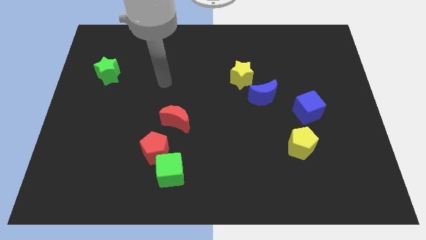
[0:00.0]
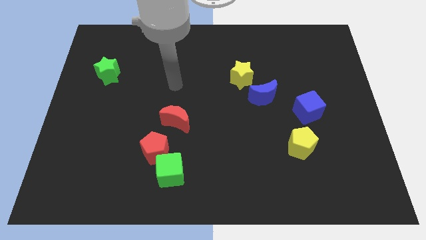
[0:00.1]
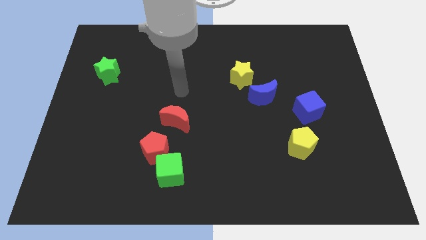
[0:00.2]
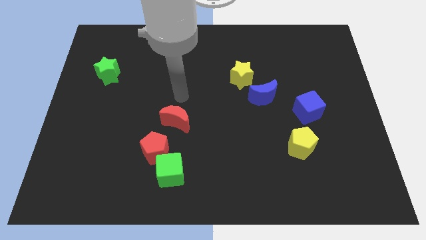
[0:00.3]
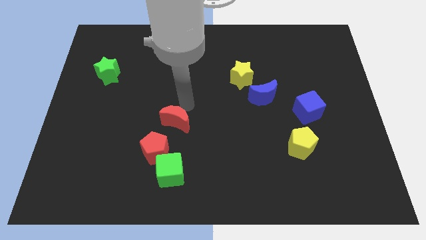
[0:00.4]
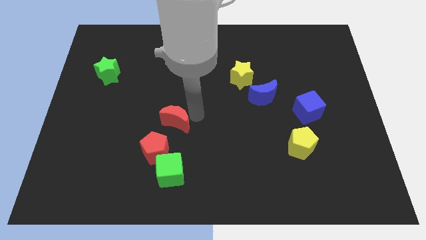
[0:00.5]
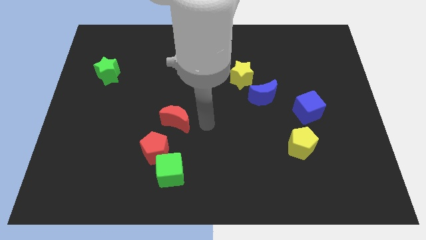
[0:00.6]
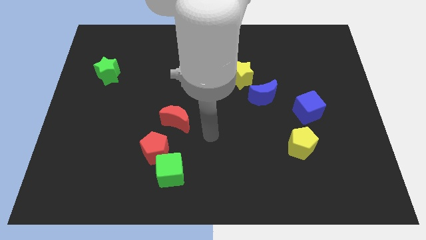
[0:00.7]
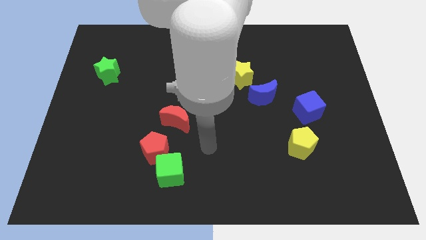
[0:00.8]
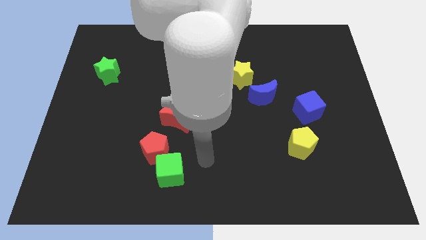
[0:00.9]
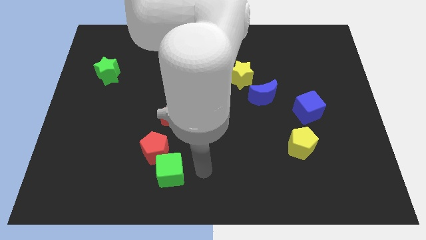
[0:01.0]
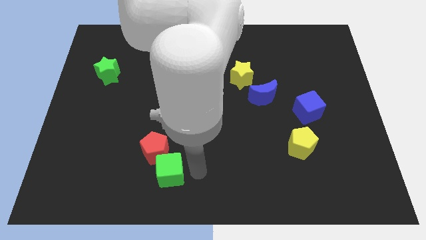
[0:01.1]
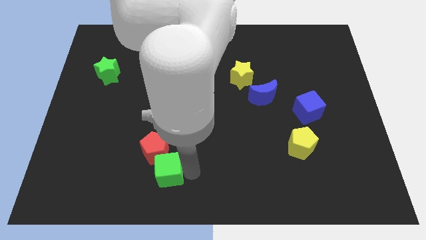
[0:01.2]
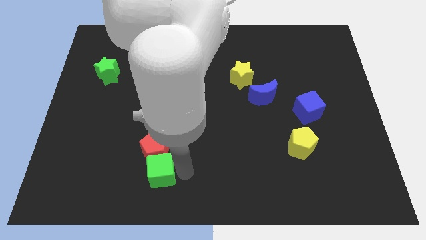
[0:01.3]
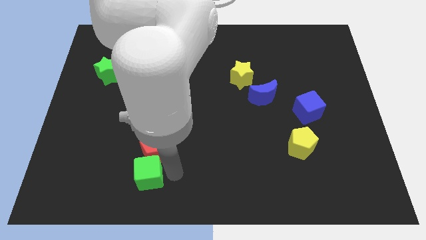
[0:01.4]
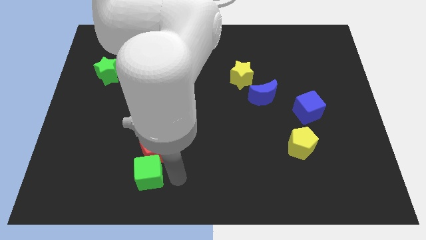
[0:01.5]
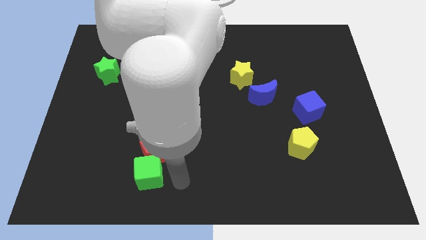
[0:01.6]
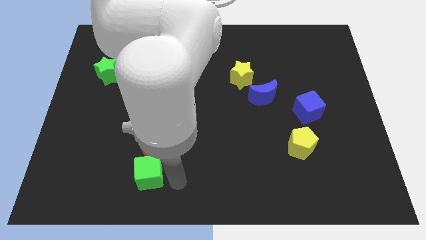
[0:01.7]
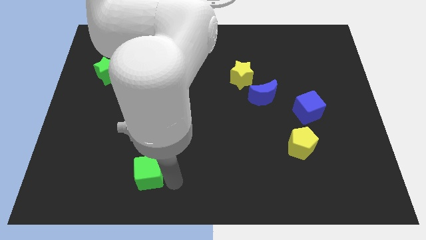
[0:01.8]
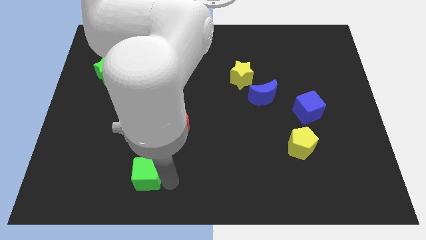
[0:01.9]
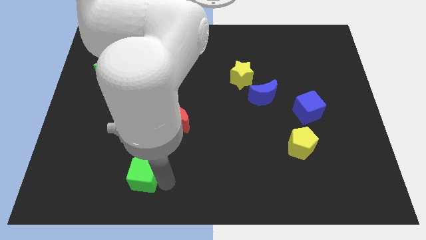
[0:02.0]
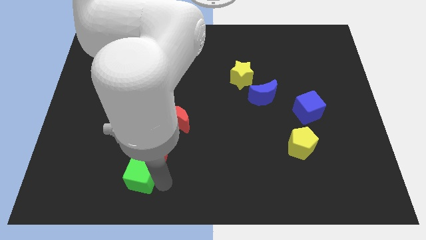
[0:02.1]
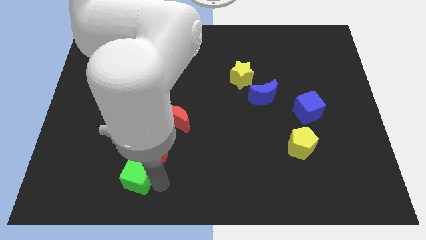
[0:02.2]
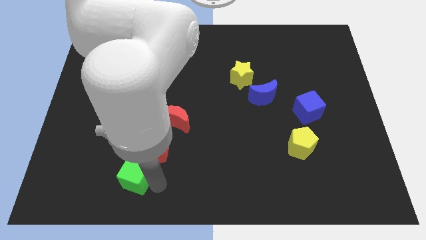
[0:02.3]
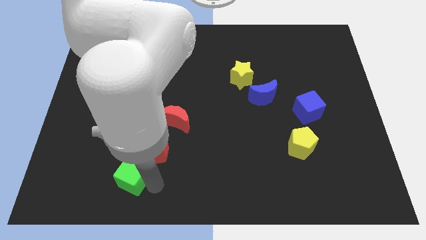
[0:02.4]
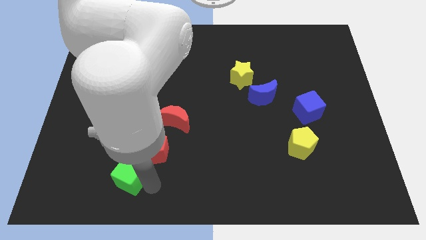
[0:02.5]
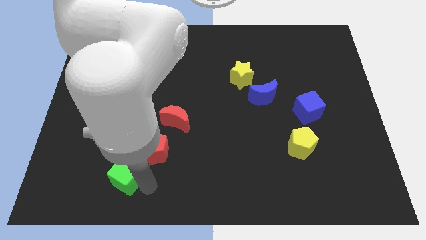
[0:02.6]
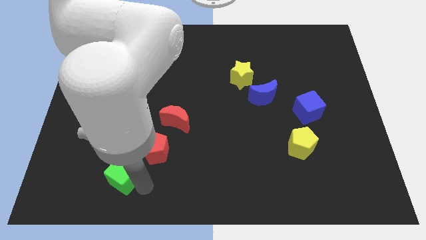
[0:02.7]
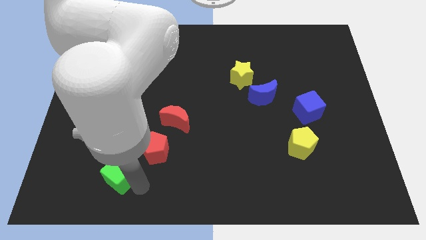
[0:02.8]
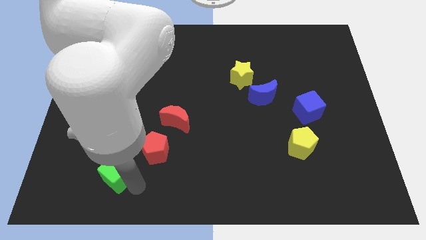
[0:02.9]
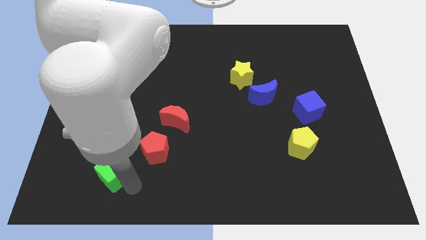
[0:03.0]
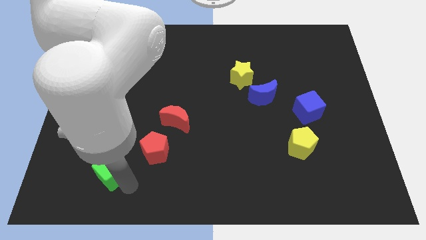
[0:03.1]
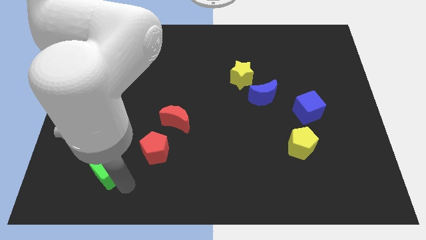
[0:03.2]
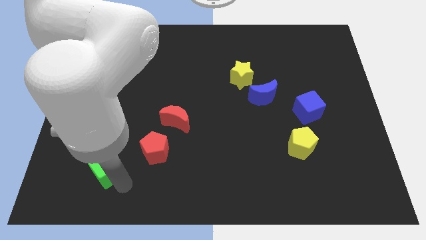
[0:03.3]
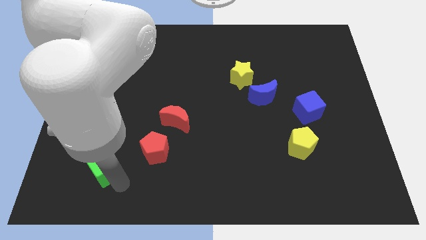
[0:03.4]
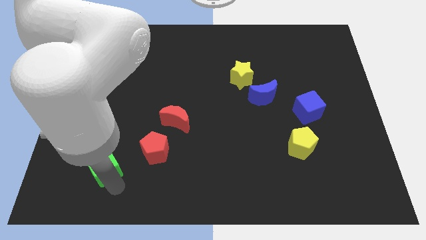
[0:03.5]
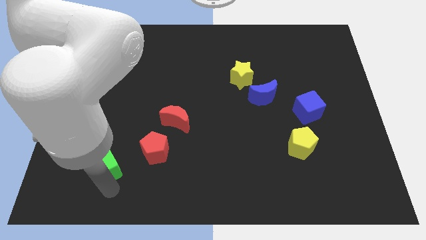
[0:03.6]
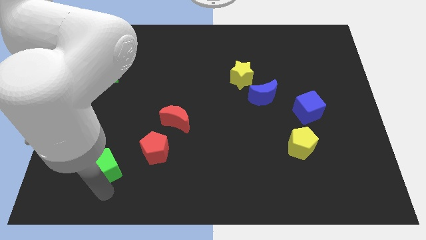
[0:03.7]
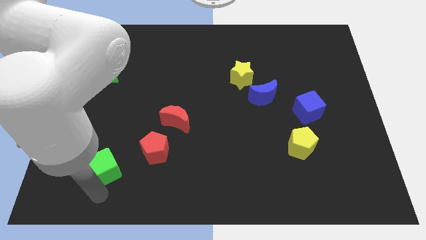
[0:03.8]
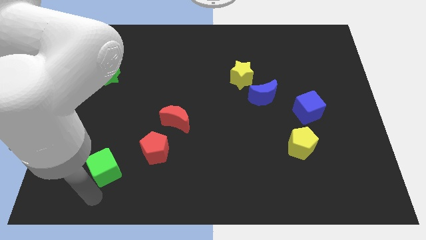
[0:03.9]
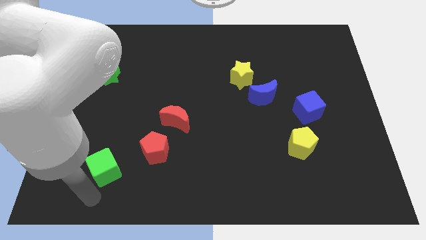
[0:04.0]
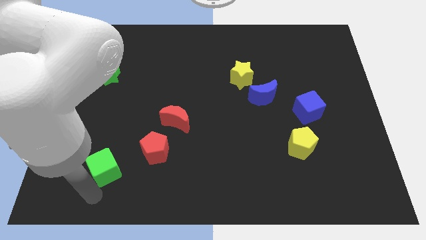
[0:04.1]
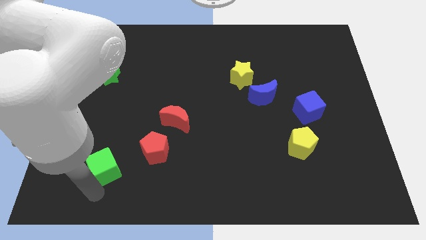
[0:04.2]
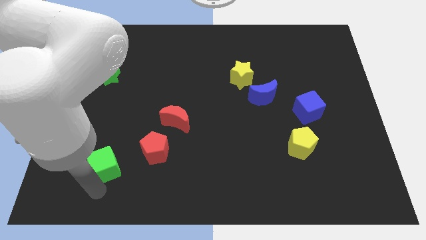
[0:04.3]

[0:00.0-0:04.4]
push the green cube diagonally upwards and to the left slightly

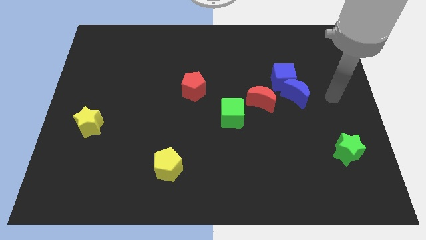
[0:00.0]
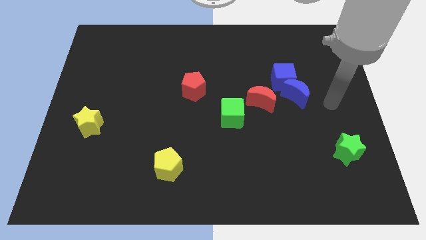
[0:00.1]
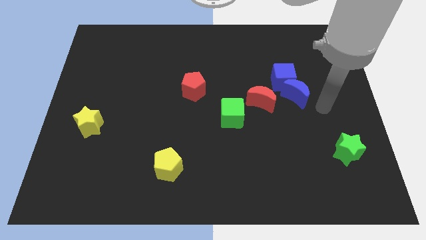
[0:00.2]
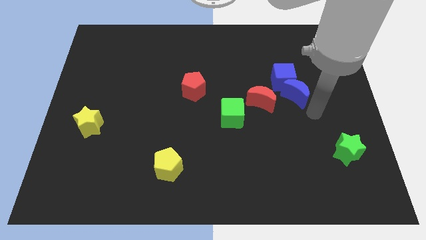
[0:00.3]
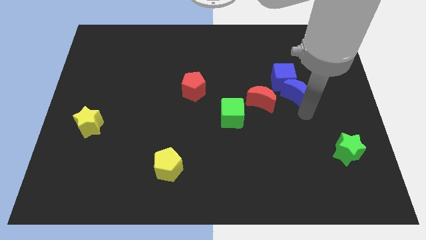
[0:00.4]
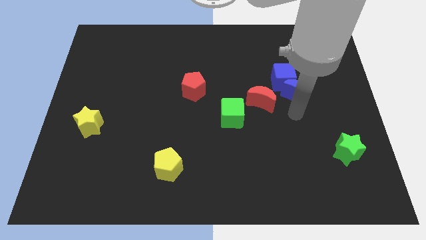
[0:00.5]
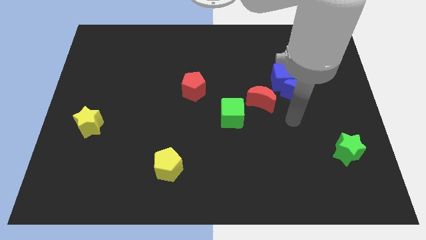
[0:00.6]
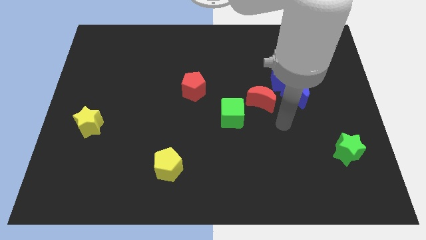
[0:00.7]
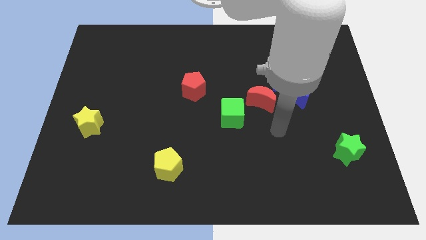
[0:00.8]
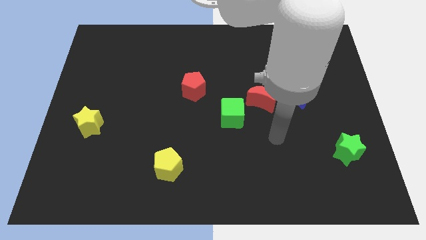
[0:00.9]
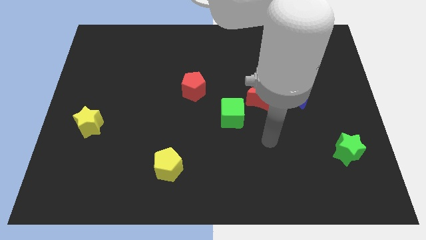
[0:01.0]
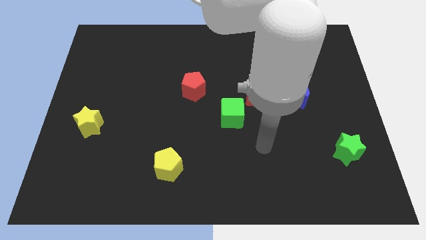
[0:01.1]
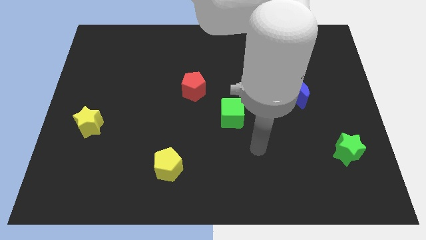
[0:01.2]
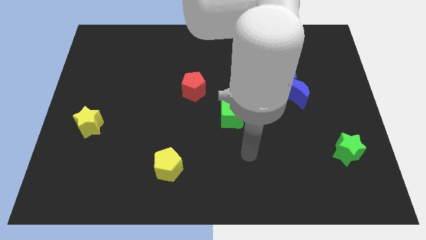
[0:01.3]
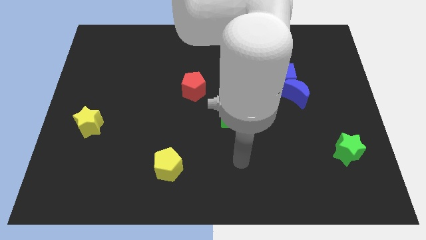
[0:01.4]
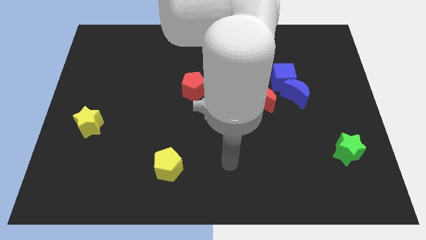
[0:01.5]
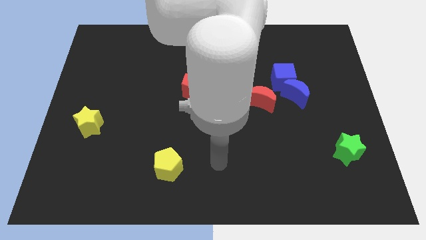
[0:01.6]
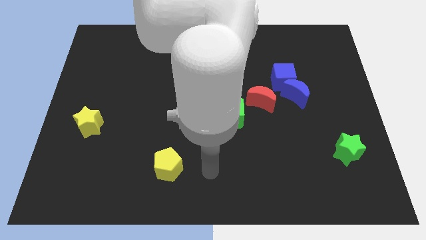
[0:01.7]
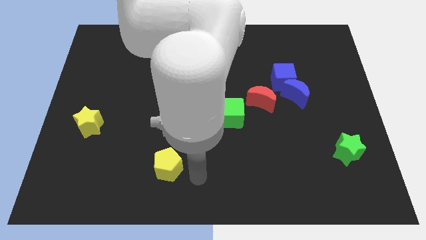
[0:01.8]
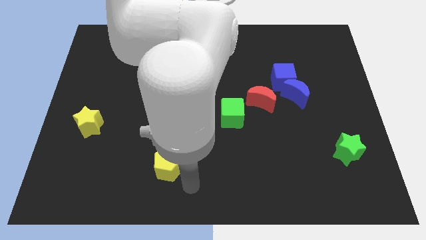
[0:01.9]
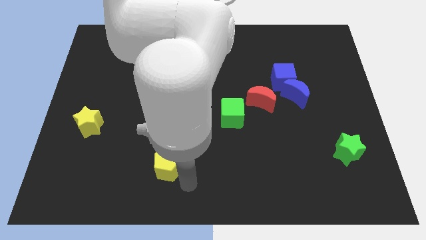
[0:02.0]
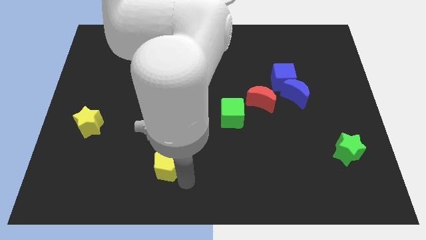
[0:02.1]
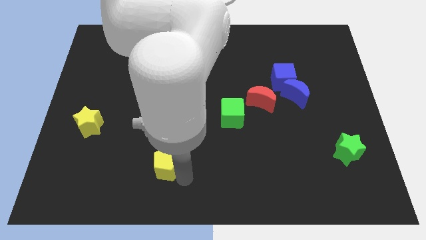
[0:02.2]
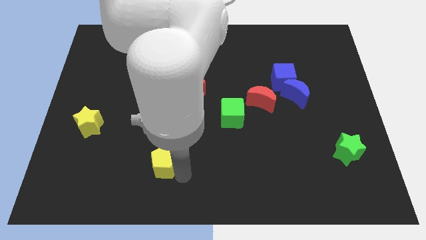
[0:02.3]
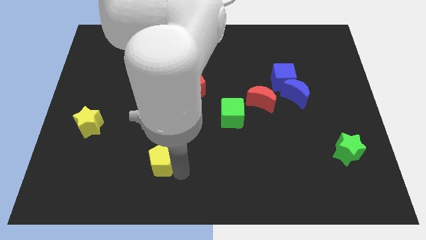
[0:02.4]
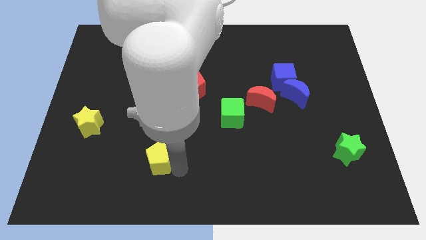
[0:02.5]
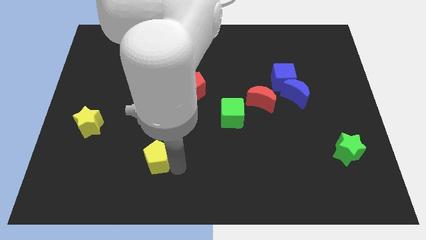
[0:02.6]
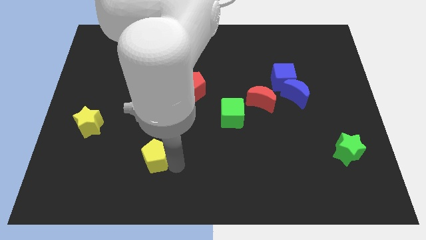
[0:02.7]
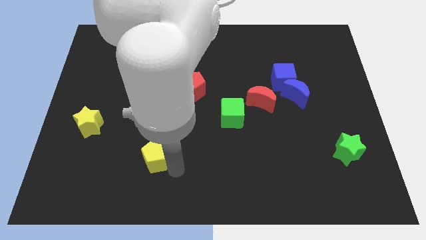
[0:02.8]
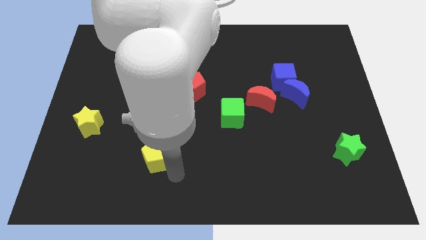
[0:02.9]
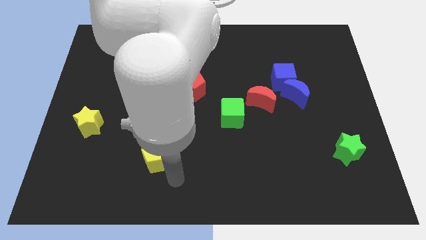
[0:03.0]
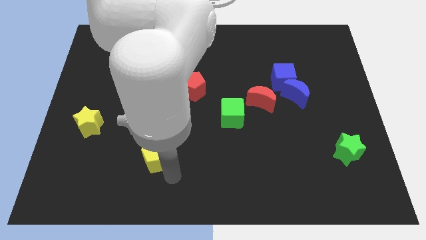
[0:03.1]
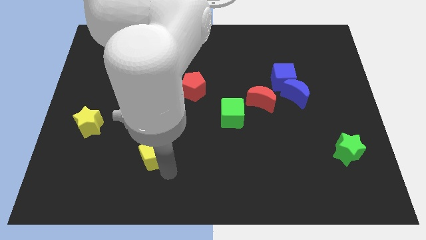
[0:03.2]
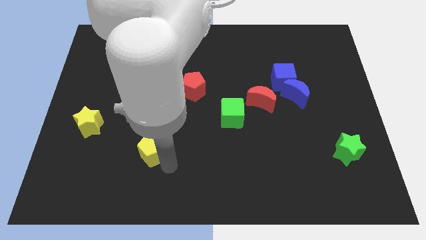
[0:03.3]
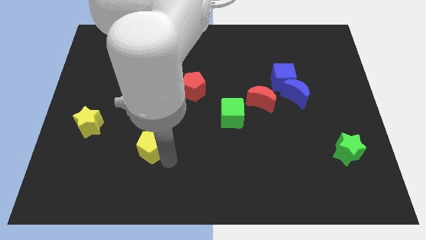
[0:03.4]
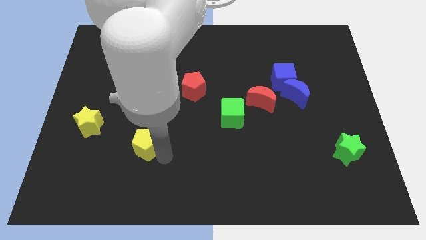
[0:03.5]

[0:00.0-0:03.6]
push the yellow pentagon somewhat upwards and then to the left
